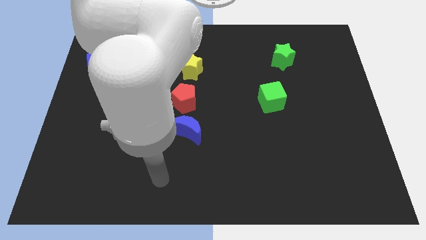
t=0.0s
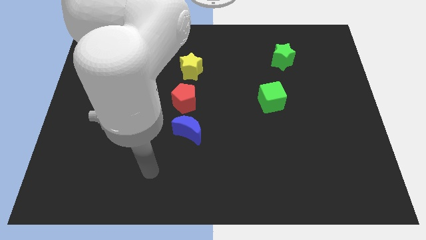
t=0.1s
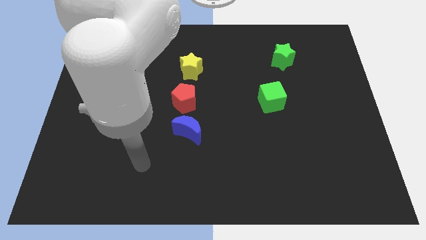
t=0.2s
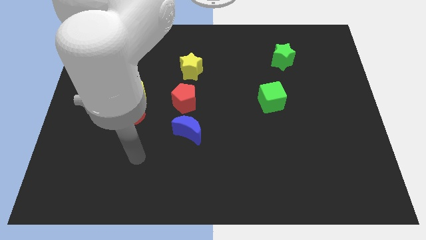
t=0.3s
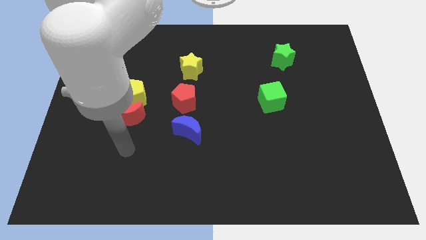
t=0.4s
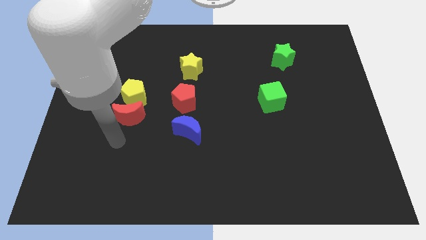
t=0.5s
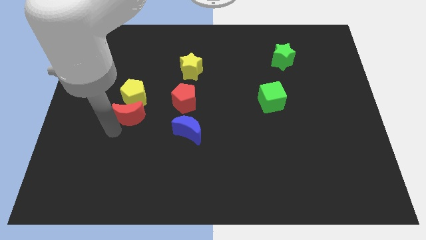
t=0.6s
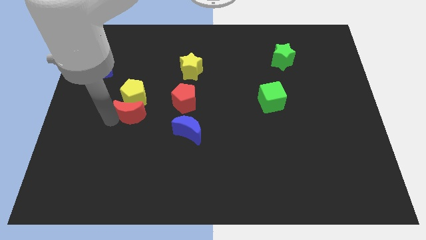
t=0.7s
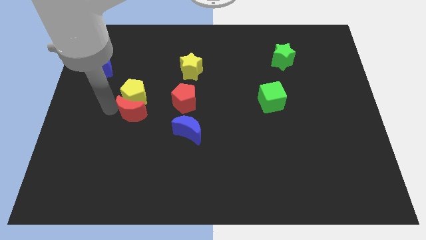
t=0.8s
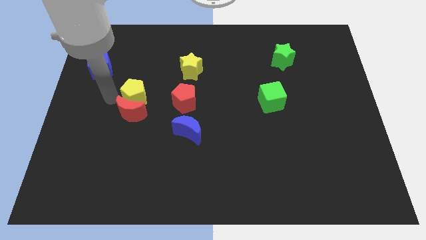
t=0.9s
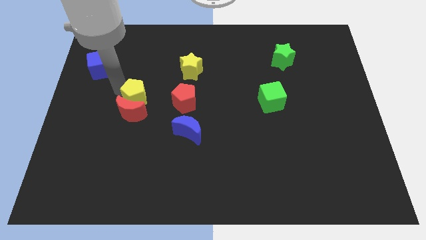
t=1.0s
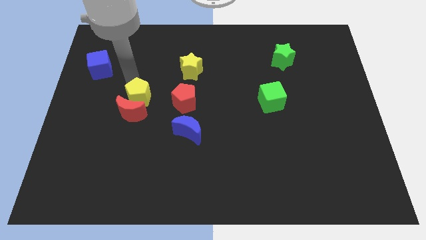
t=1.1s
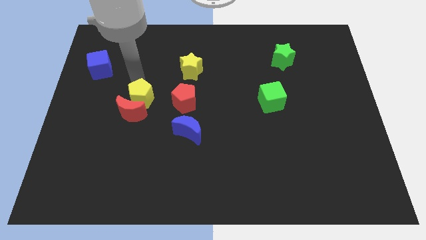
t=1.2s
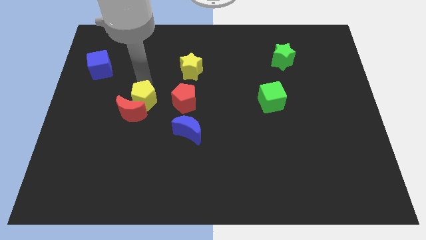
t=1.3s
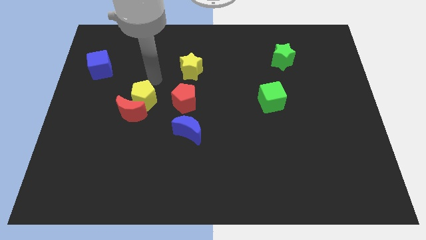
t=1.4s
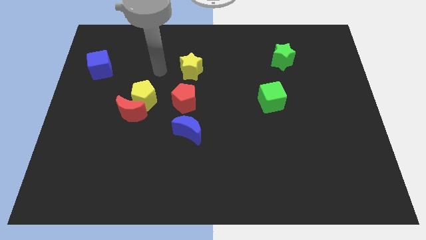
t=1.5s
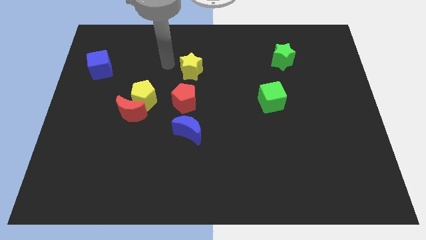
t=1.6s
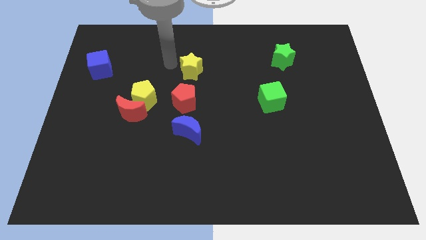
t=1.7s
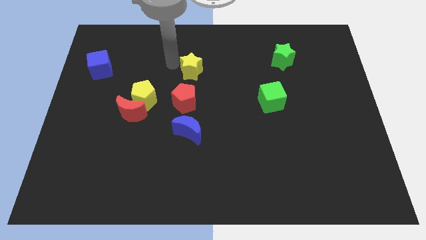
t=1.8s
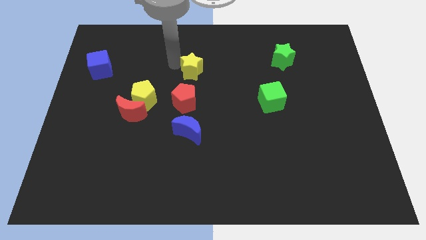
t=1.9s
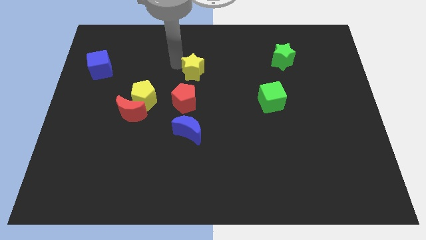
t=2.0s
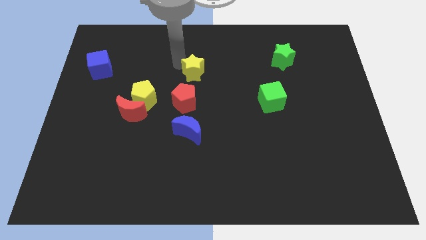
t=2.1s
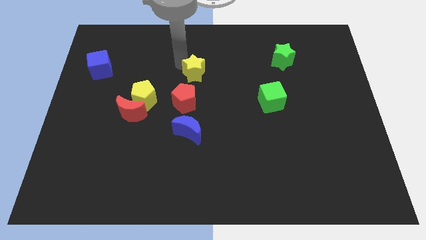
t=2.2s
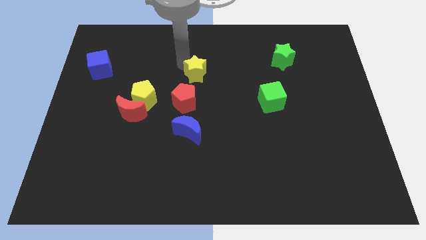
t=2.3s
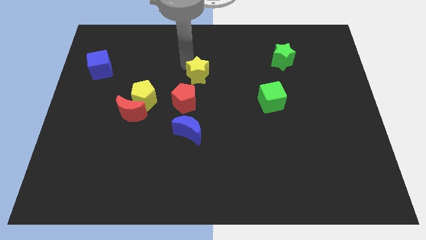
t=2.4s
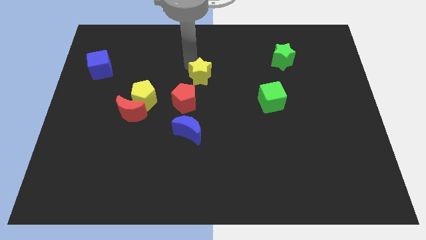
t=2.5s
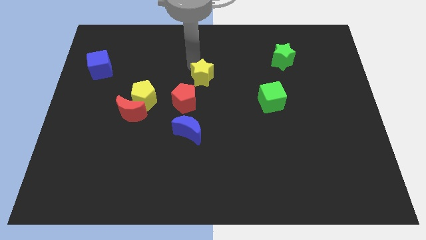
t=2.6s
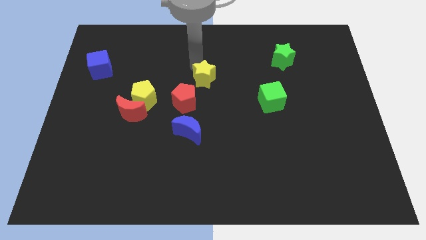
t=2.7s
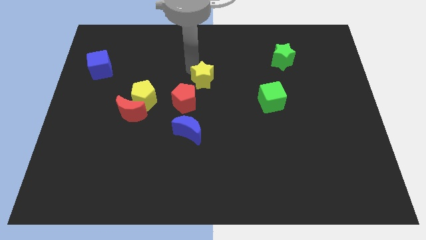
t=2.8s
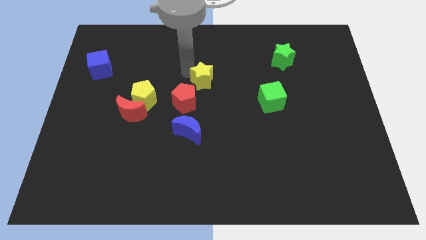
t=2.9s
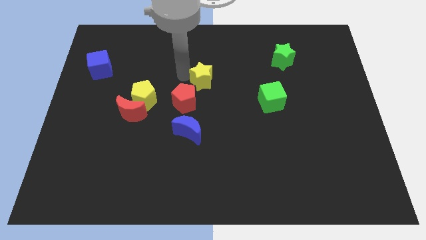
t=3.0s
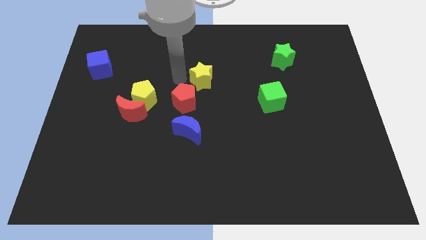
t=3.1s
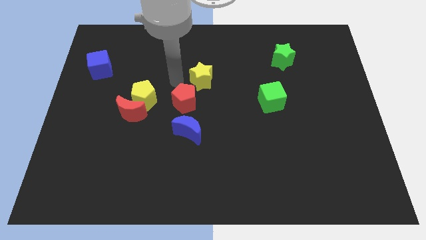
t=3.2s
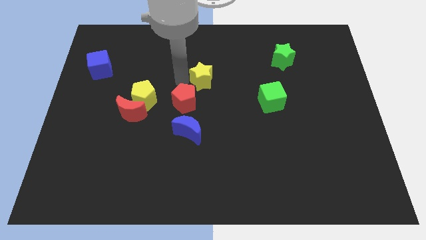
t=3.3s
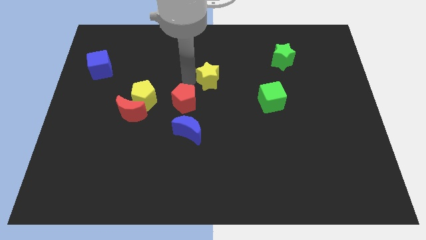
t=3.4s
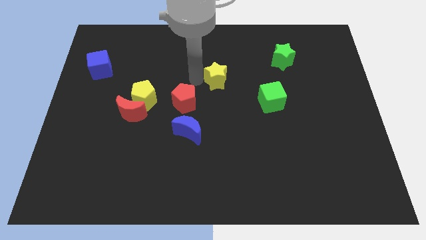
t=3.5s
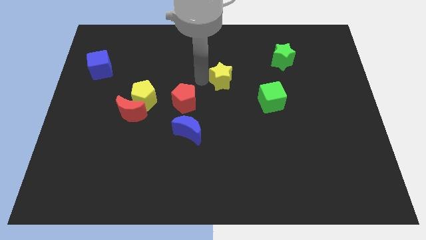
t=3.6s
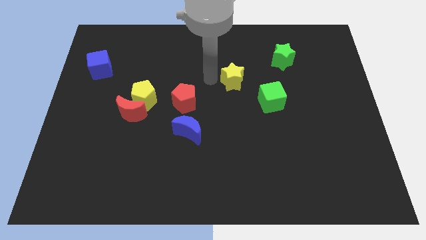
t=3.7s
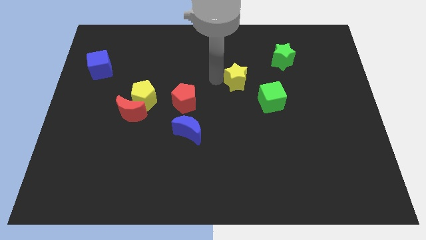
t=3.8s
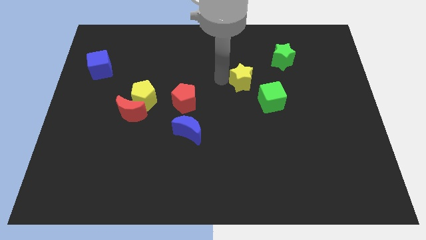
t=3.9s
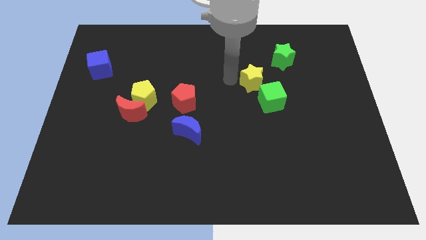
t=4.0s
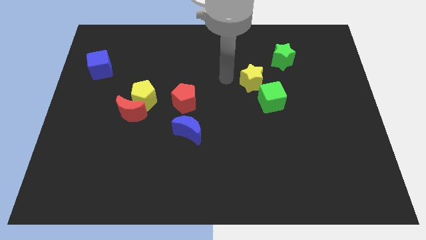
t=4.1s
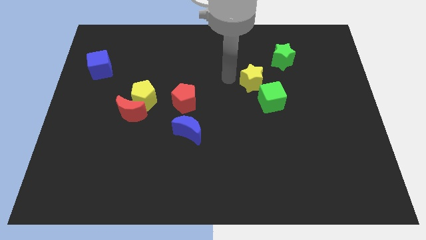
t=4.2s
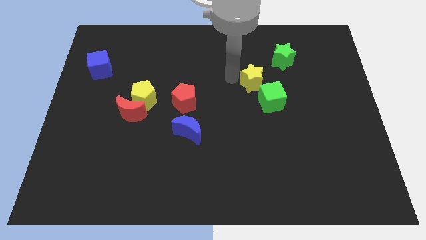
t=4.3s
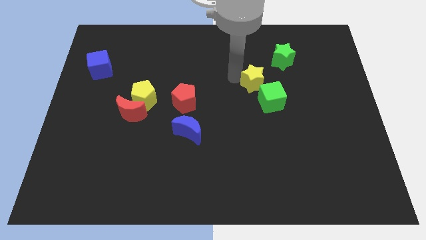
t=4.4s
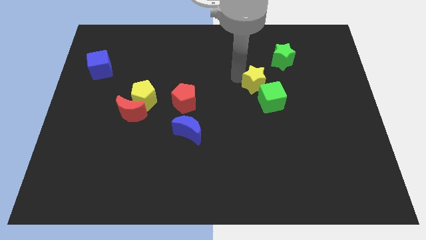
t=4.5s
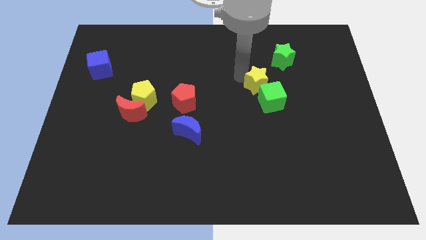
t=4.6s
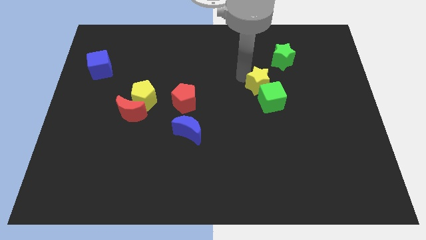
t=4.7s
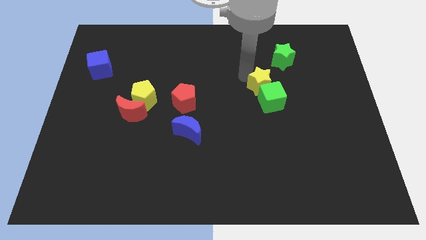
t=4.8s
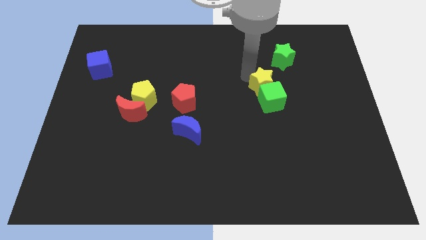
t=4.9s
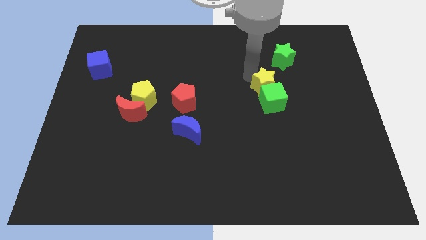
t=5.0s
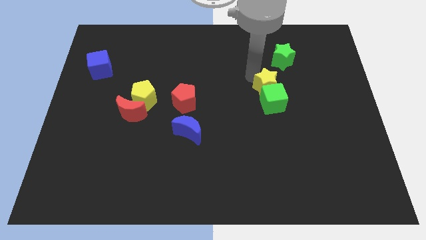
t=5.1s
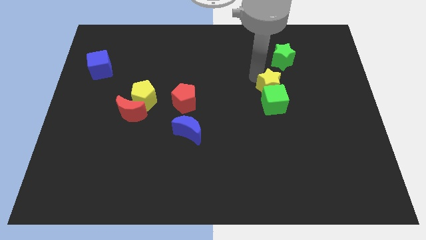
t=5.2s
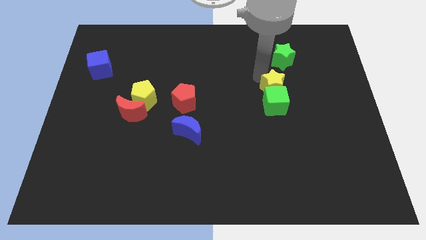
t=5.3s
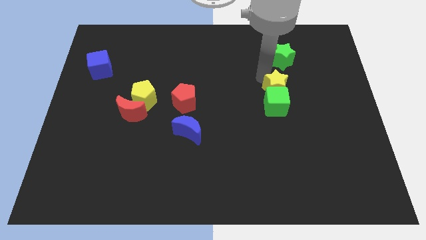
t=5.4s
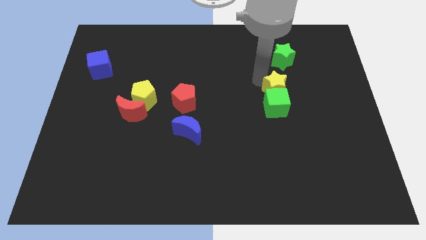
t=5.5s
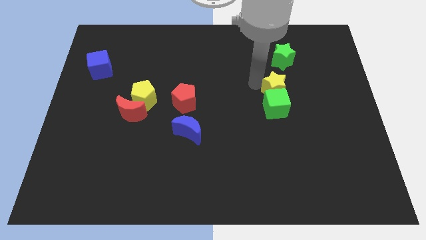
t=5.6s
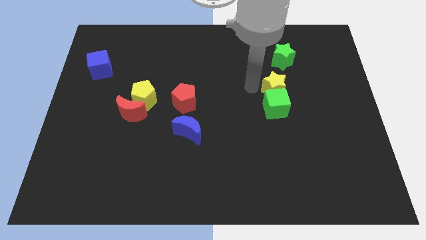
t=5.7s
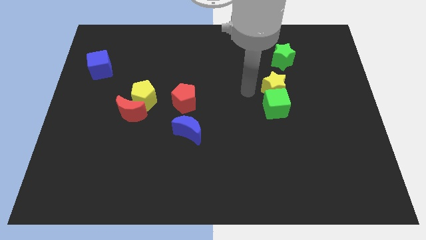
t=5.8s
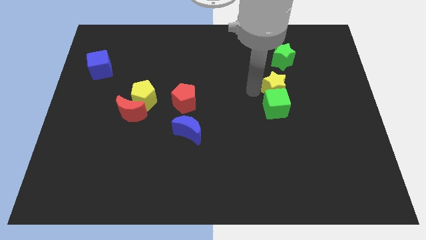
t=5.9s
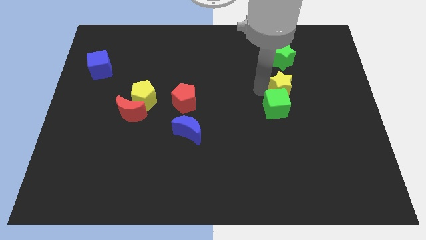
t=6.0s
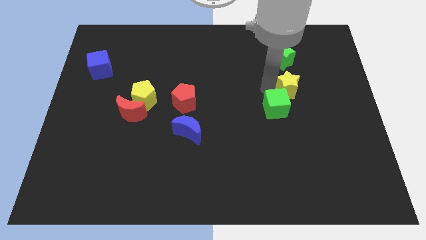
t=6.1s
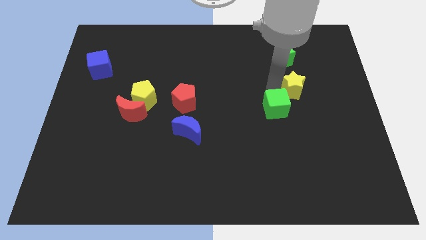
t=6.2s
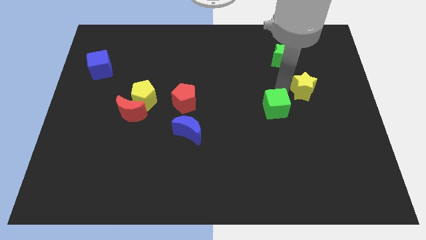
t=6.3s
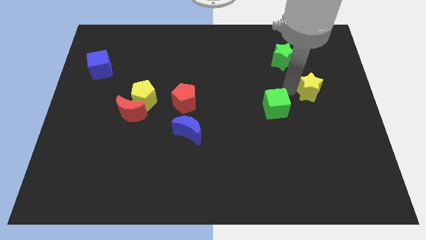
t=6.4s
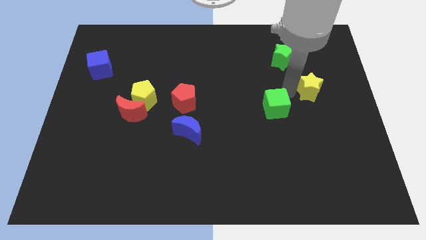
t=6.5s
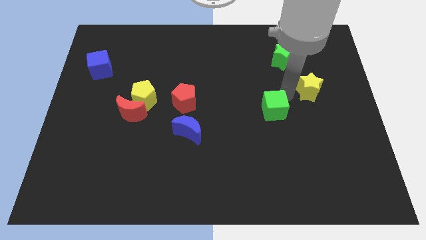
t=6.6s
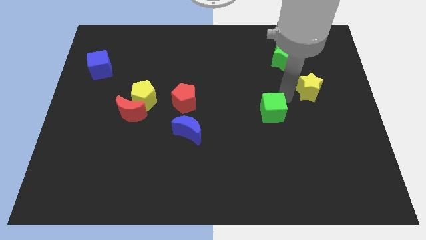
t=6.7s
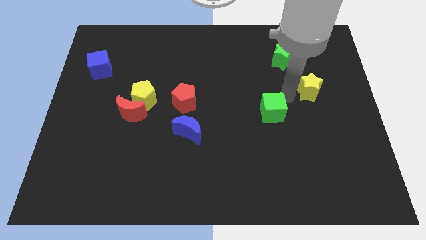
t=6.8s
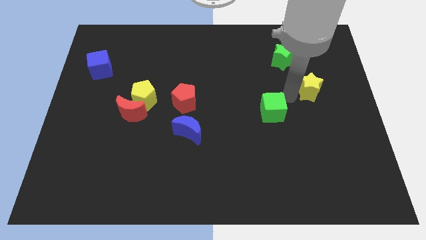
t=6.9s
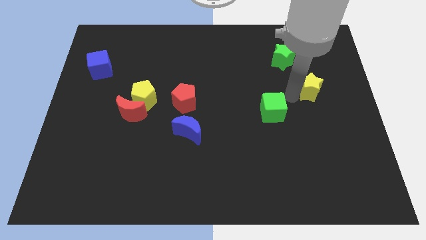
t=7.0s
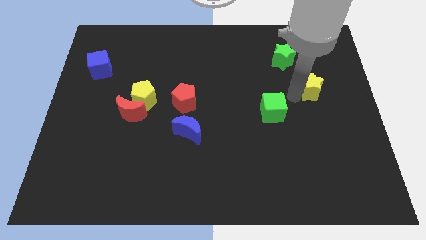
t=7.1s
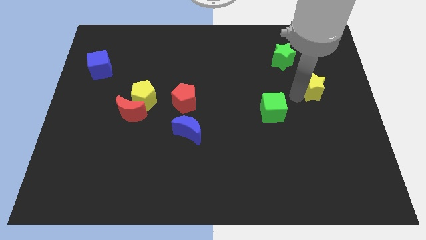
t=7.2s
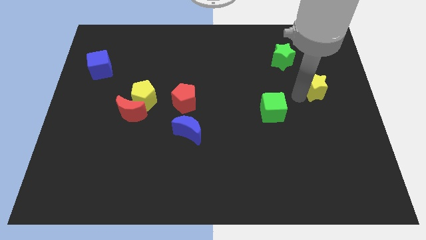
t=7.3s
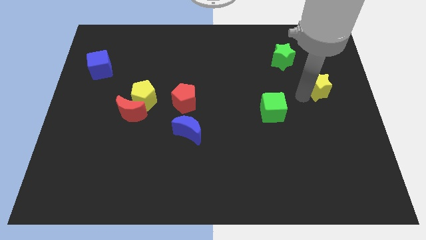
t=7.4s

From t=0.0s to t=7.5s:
move the yellow star to the right side of the board
